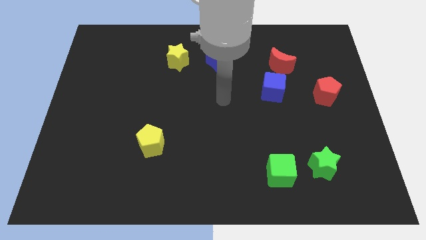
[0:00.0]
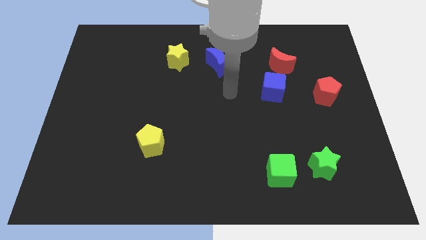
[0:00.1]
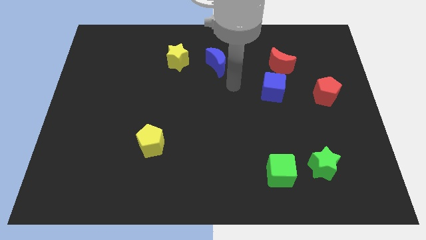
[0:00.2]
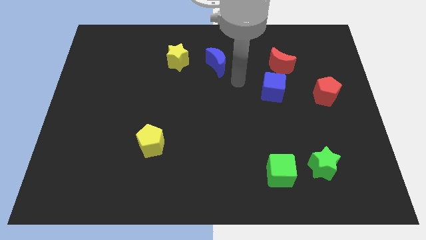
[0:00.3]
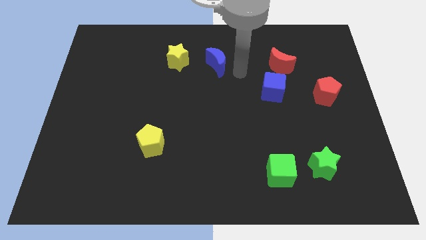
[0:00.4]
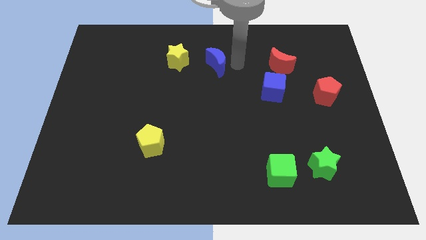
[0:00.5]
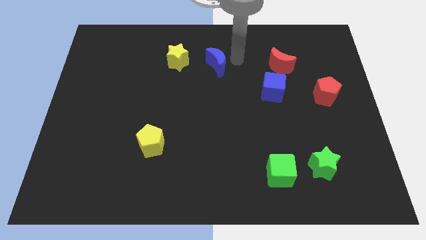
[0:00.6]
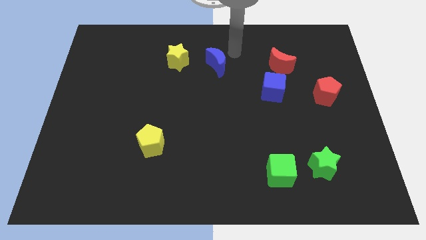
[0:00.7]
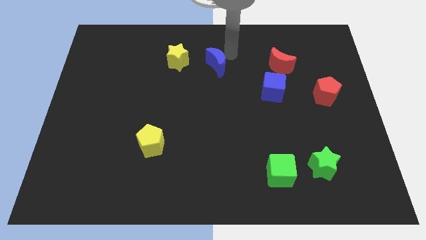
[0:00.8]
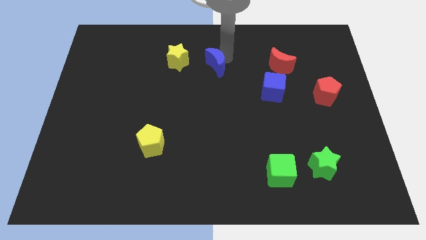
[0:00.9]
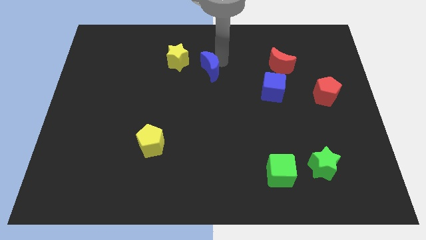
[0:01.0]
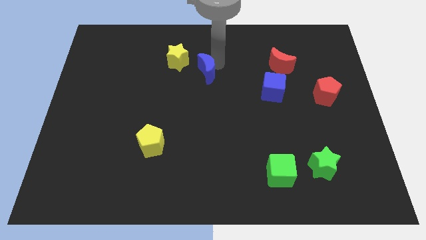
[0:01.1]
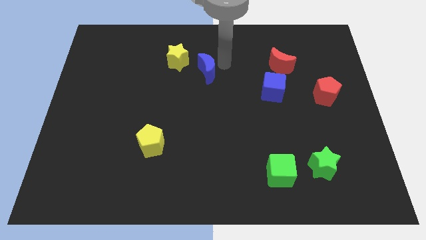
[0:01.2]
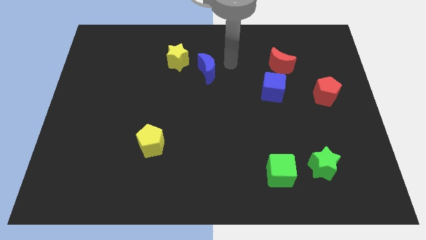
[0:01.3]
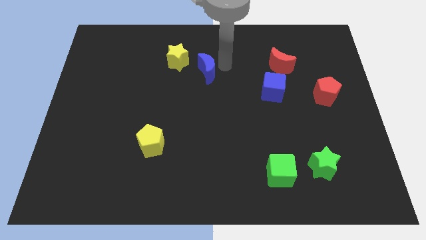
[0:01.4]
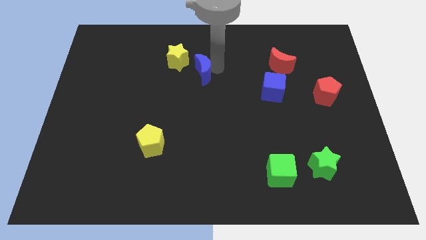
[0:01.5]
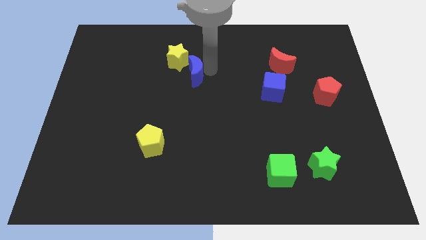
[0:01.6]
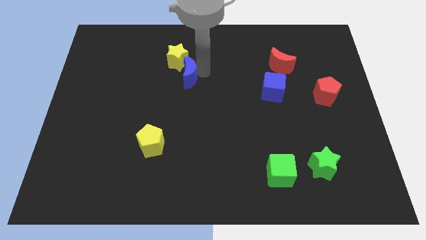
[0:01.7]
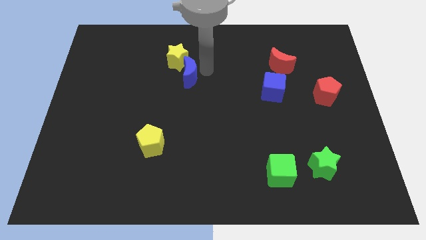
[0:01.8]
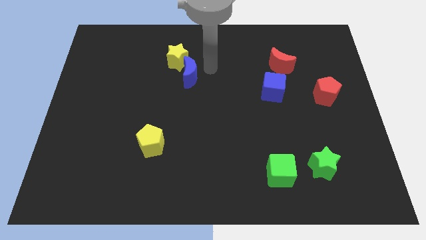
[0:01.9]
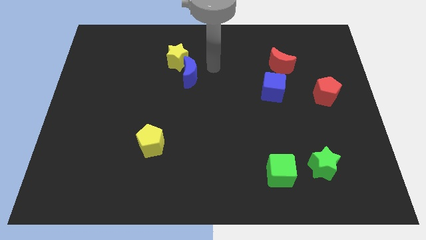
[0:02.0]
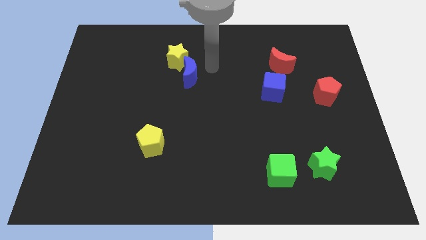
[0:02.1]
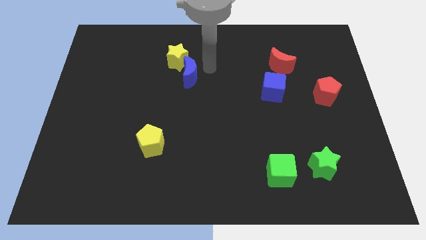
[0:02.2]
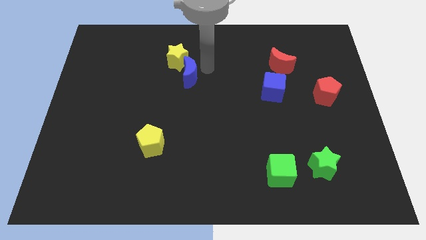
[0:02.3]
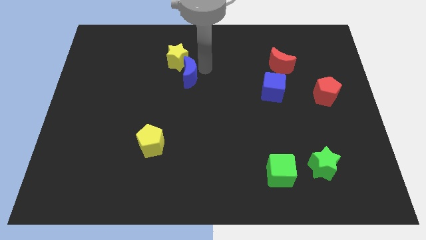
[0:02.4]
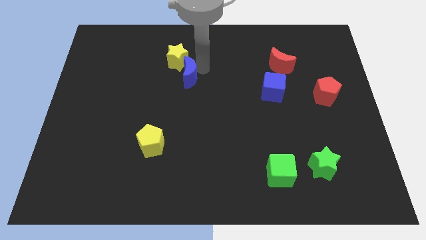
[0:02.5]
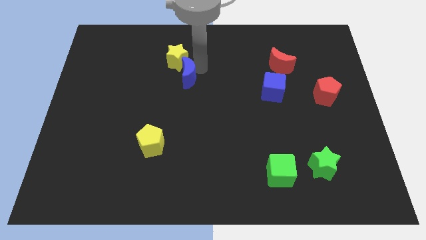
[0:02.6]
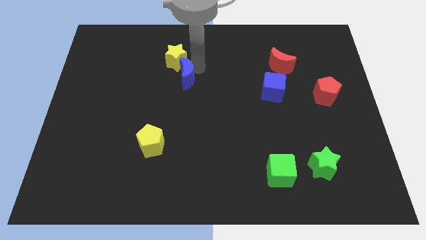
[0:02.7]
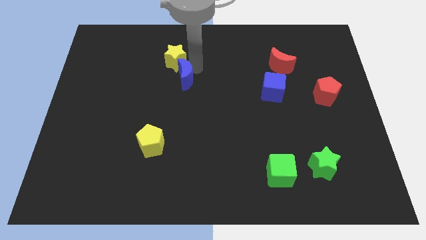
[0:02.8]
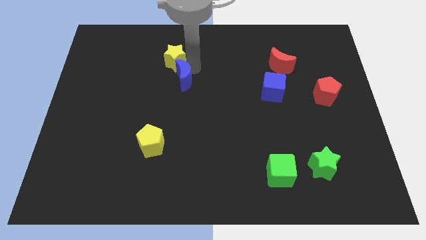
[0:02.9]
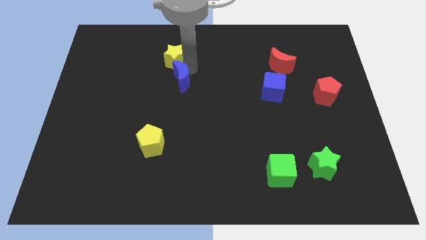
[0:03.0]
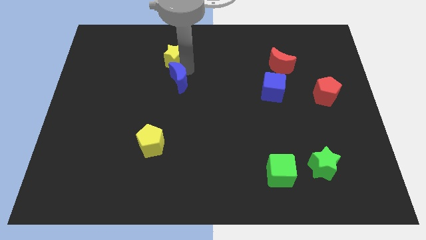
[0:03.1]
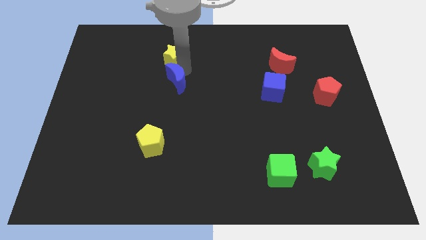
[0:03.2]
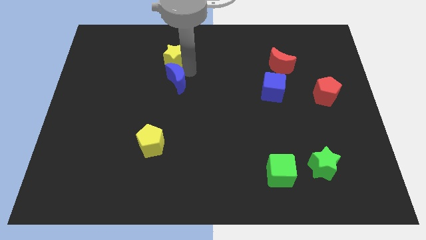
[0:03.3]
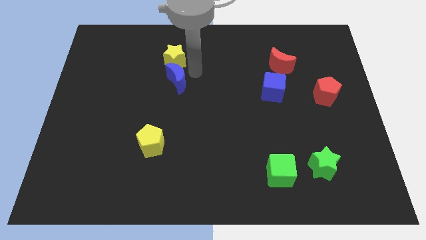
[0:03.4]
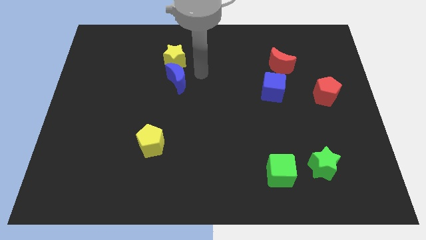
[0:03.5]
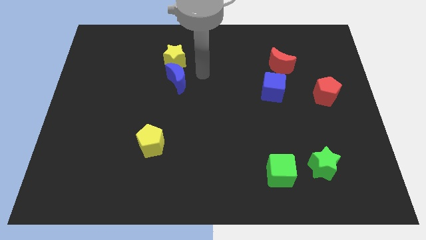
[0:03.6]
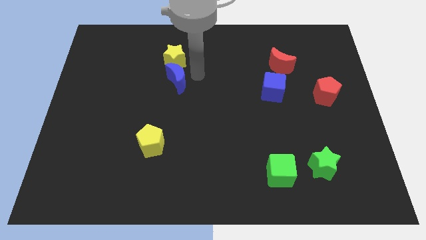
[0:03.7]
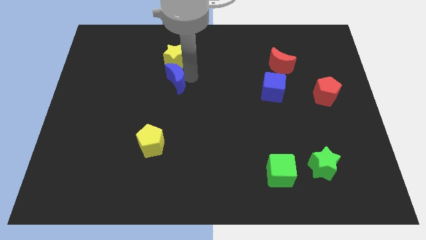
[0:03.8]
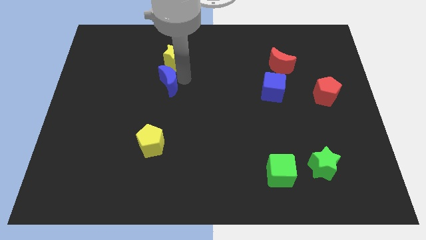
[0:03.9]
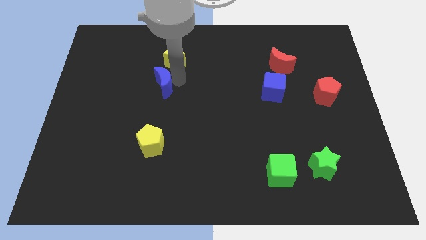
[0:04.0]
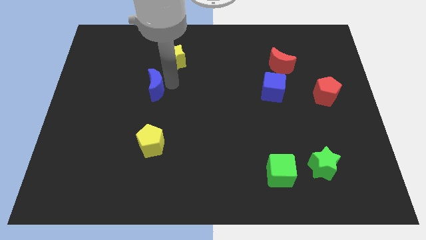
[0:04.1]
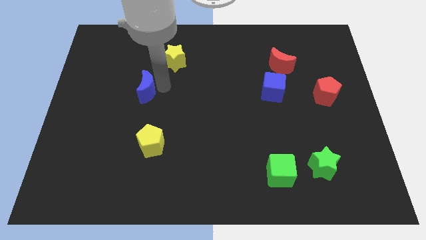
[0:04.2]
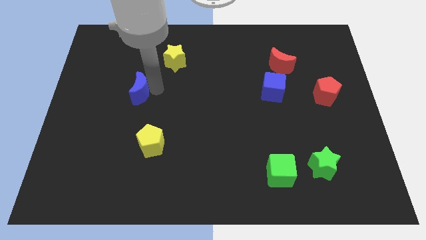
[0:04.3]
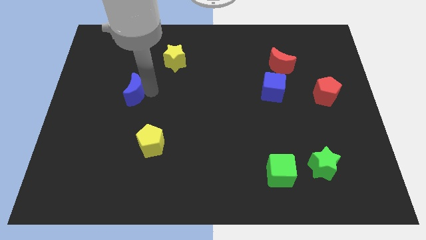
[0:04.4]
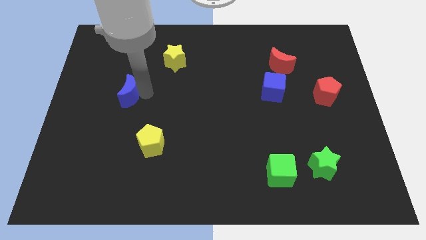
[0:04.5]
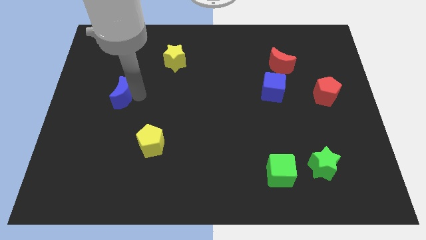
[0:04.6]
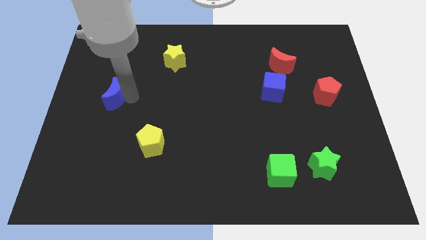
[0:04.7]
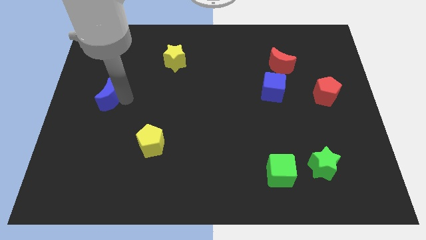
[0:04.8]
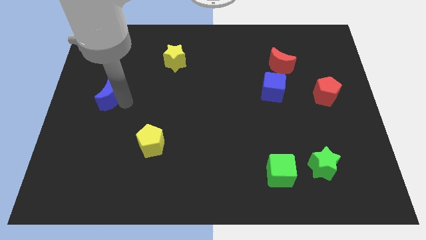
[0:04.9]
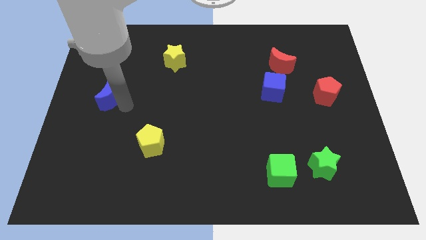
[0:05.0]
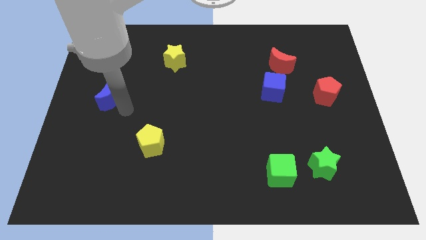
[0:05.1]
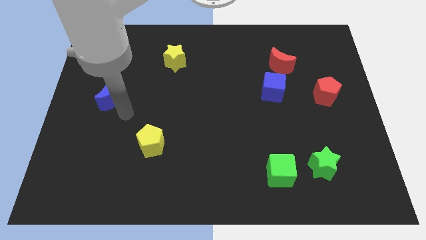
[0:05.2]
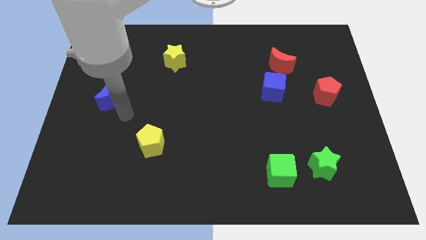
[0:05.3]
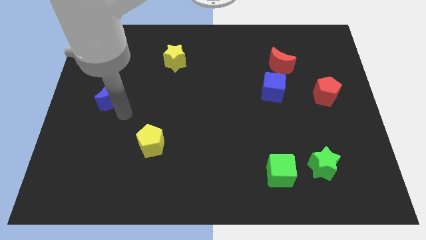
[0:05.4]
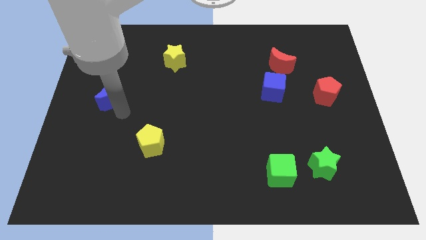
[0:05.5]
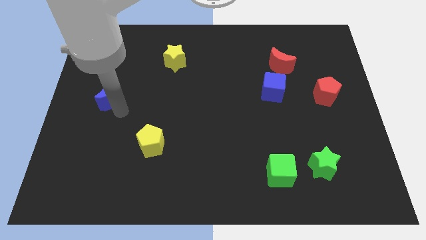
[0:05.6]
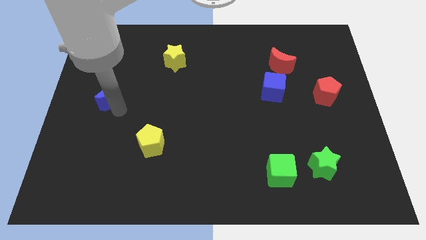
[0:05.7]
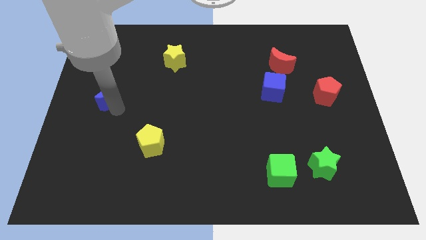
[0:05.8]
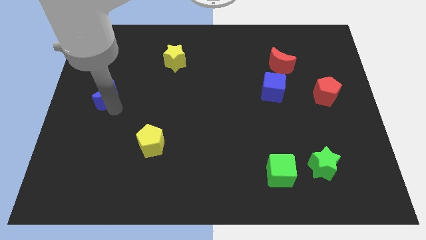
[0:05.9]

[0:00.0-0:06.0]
push the blue moon to the left side
